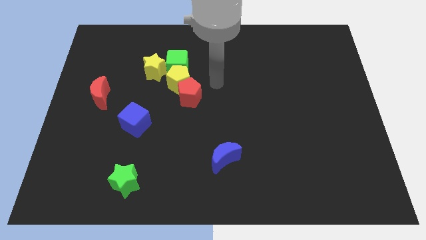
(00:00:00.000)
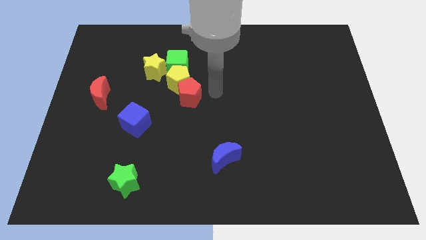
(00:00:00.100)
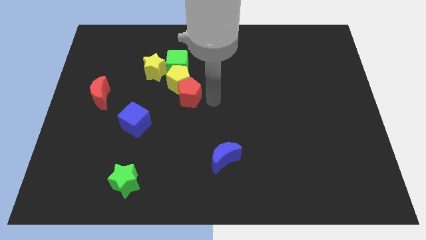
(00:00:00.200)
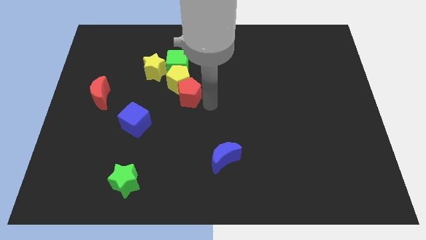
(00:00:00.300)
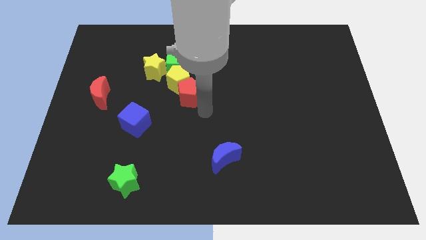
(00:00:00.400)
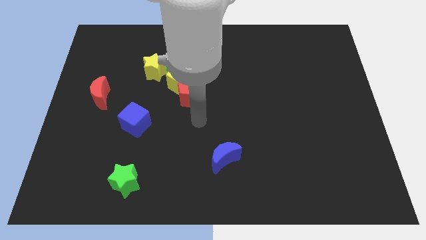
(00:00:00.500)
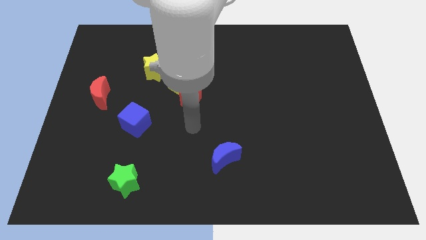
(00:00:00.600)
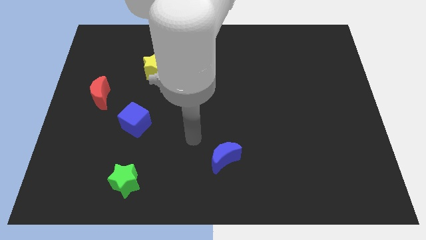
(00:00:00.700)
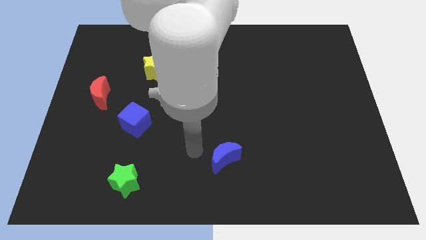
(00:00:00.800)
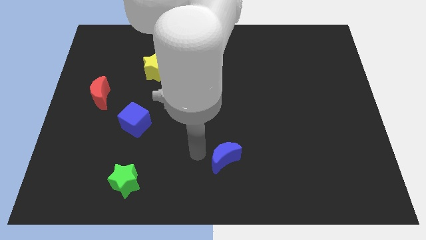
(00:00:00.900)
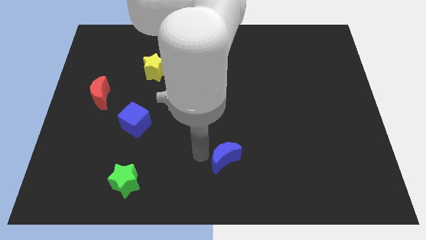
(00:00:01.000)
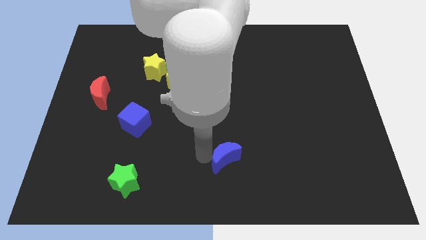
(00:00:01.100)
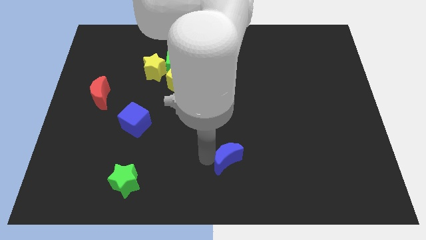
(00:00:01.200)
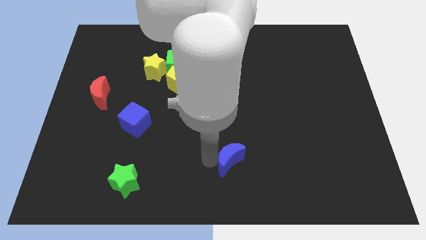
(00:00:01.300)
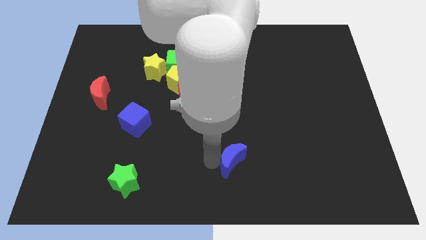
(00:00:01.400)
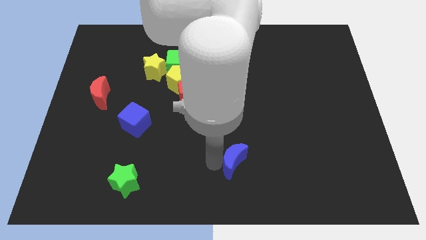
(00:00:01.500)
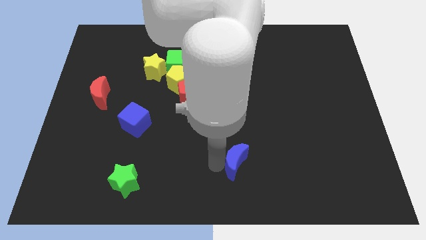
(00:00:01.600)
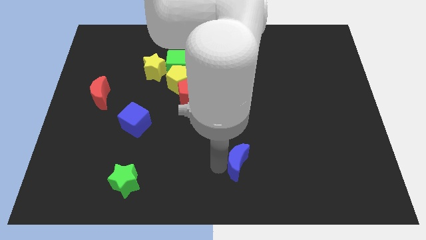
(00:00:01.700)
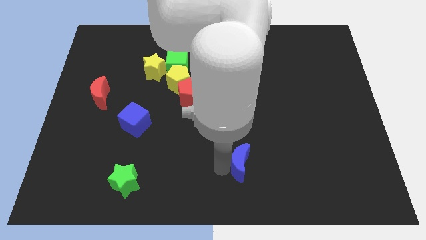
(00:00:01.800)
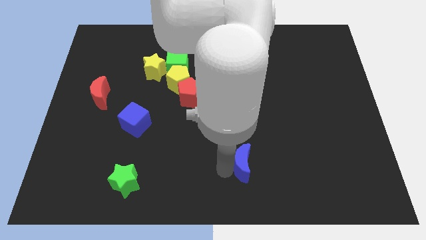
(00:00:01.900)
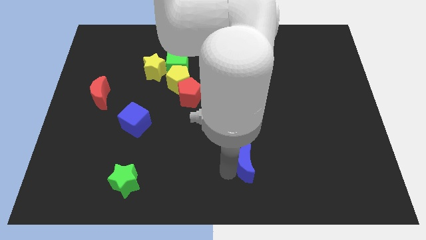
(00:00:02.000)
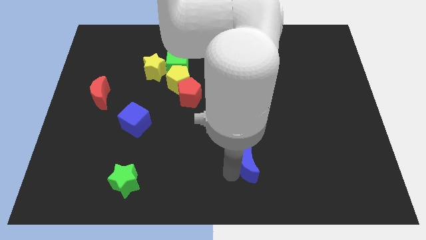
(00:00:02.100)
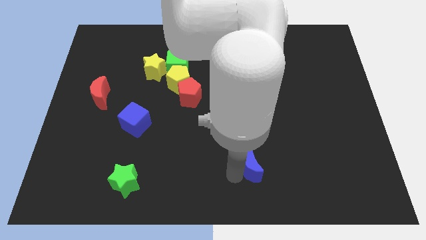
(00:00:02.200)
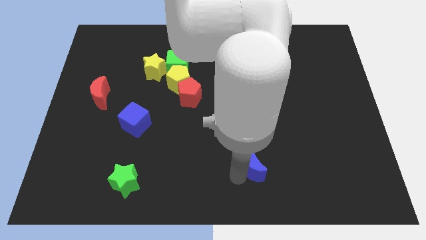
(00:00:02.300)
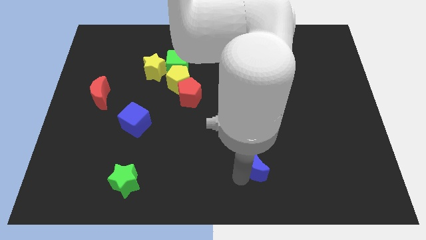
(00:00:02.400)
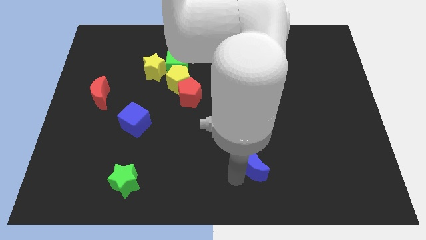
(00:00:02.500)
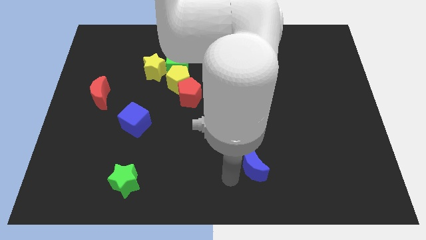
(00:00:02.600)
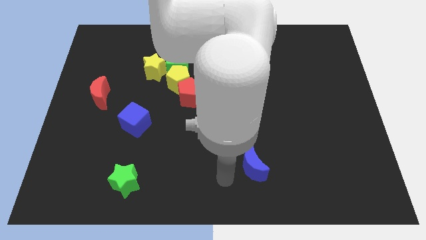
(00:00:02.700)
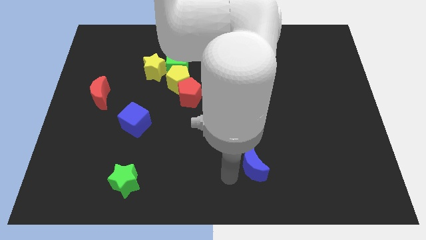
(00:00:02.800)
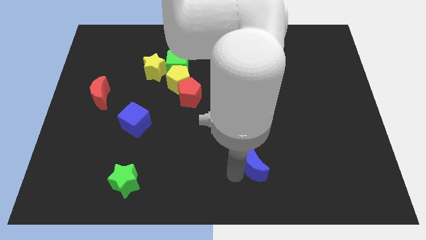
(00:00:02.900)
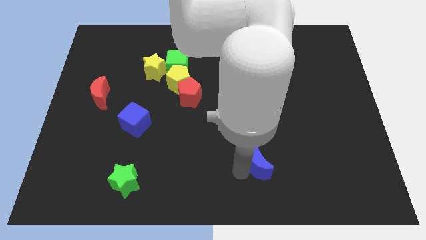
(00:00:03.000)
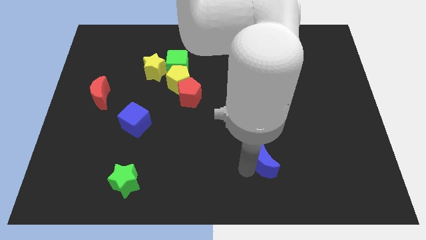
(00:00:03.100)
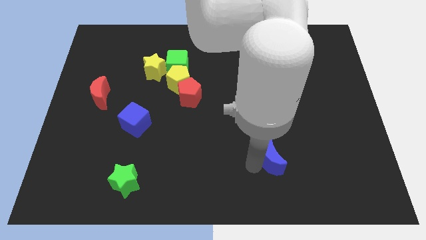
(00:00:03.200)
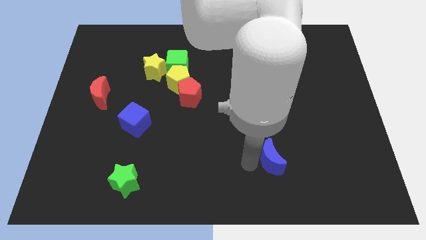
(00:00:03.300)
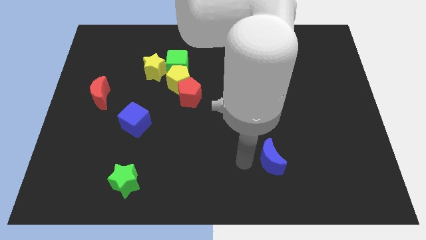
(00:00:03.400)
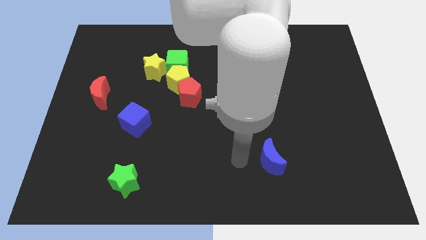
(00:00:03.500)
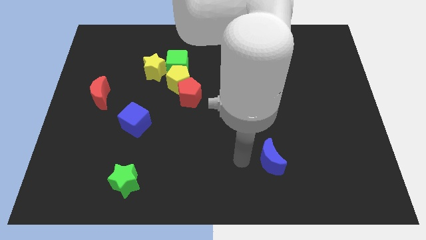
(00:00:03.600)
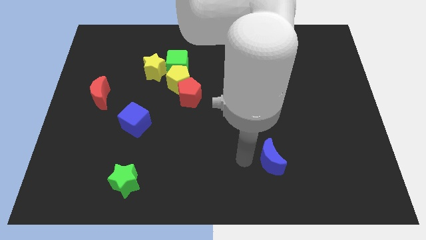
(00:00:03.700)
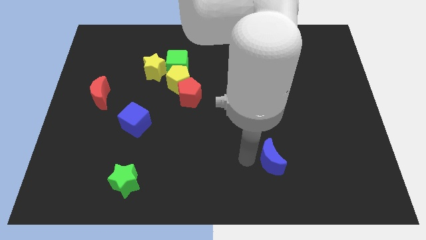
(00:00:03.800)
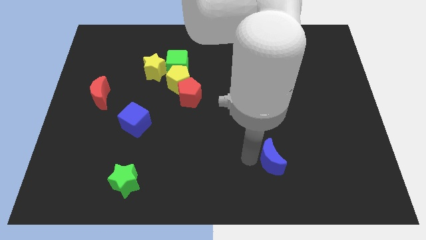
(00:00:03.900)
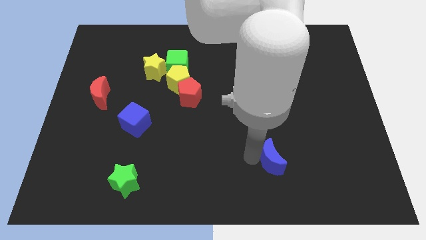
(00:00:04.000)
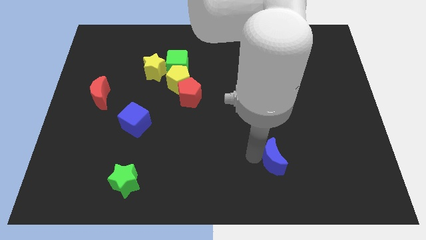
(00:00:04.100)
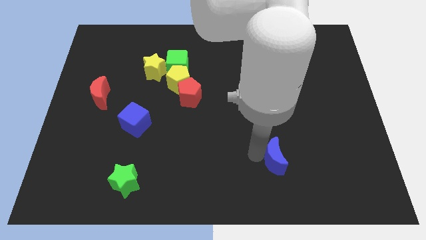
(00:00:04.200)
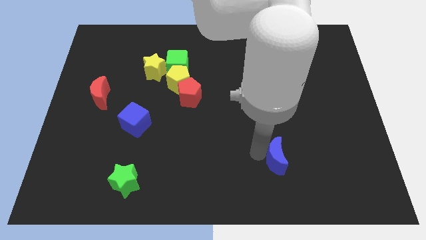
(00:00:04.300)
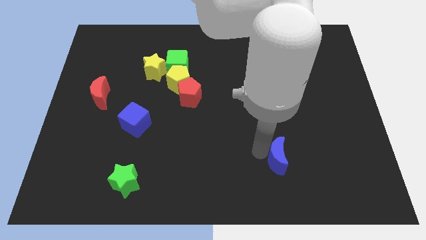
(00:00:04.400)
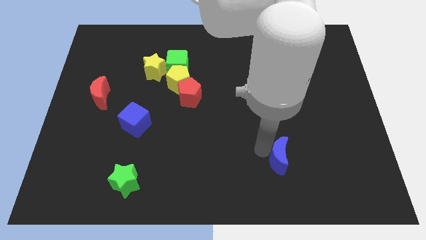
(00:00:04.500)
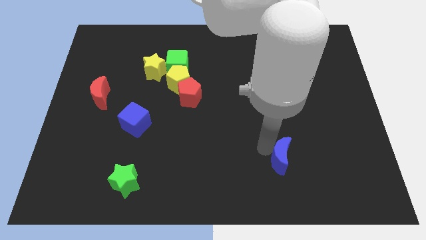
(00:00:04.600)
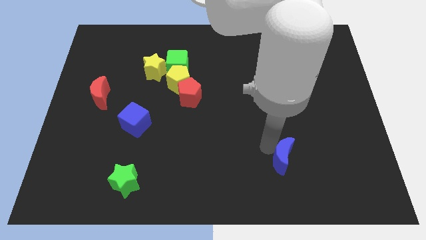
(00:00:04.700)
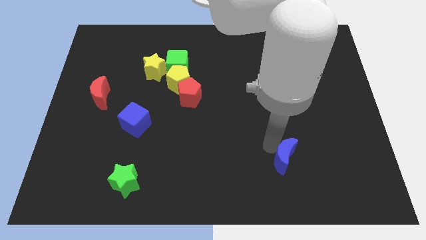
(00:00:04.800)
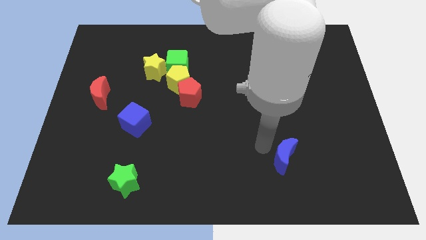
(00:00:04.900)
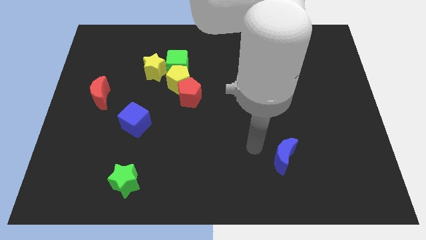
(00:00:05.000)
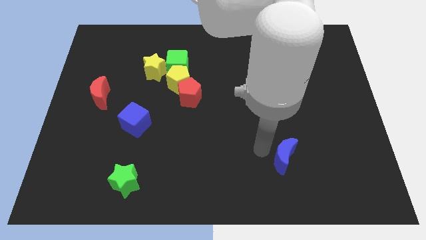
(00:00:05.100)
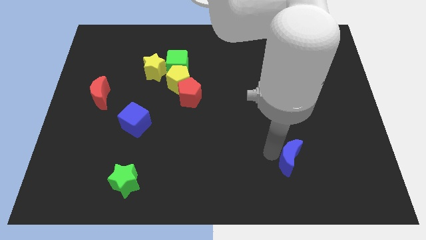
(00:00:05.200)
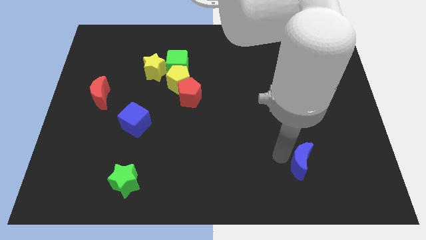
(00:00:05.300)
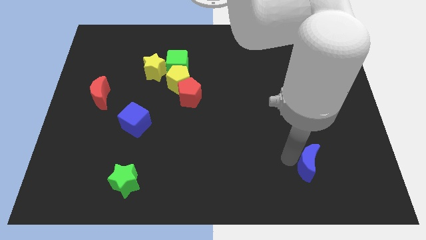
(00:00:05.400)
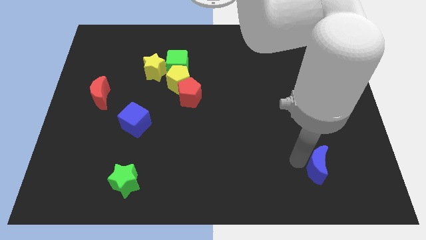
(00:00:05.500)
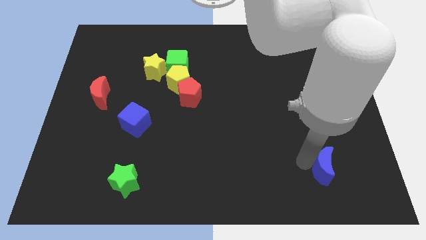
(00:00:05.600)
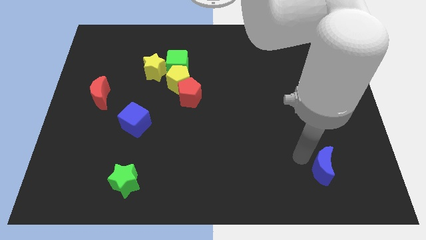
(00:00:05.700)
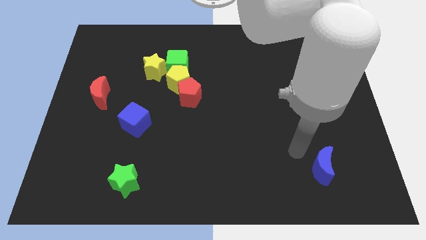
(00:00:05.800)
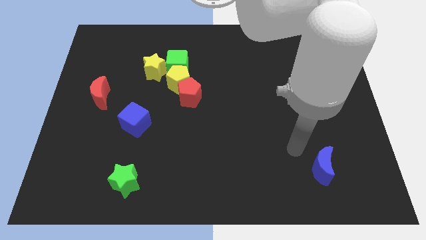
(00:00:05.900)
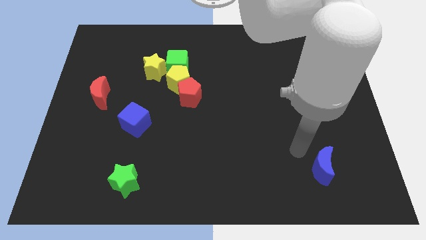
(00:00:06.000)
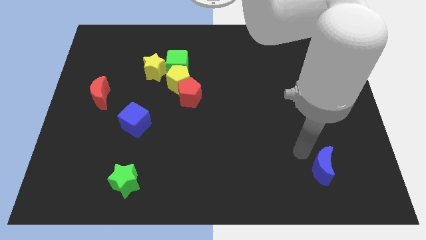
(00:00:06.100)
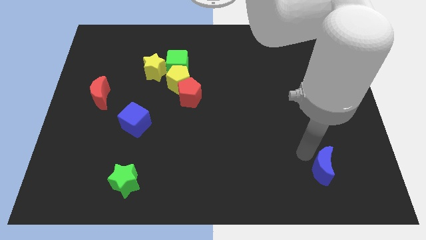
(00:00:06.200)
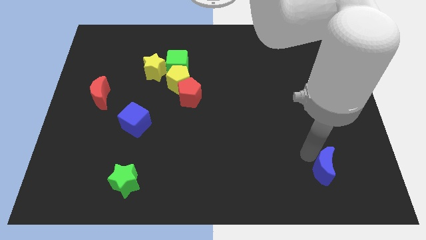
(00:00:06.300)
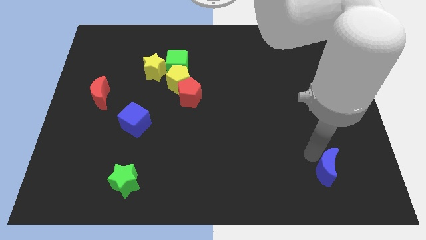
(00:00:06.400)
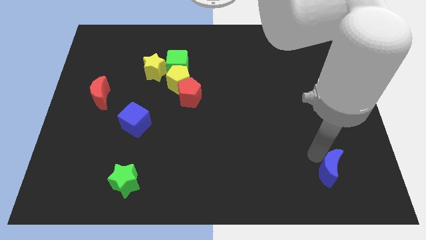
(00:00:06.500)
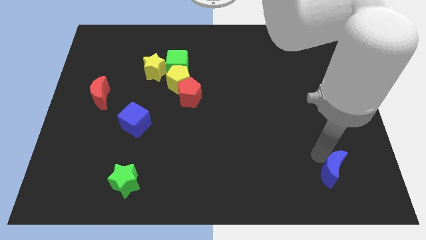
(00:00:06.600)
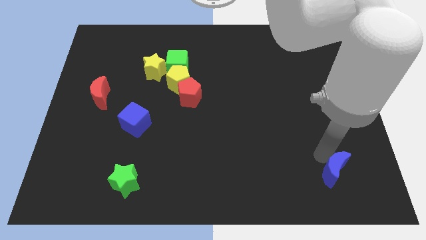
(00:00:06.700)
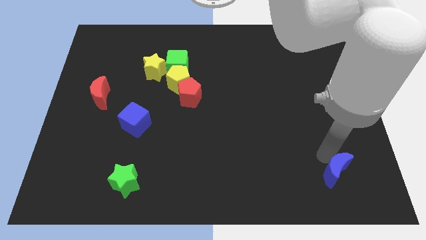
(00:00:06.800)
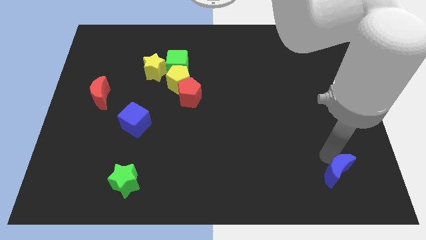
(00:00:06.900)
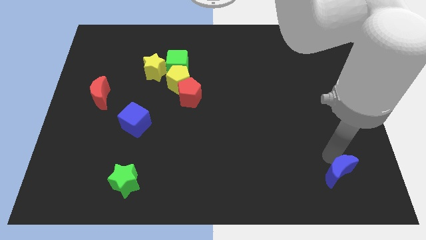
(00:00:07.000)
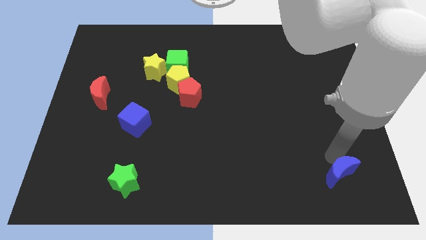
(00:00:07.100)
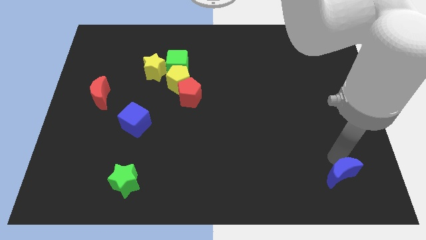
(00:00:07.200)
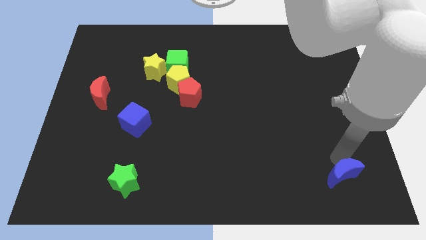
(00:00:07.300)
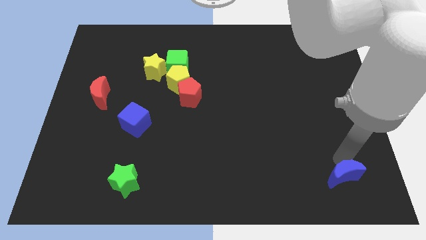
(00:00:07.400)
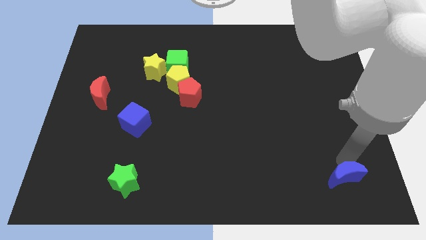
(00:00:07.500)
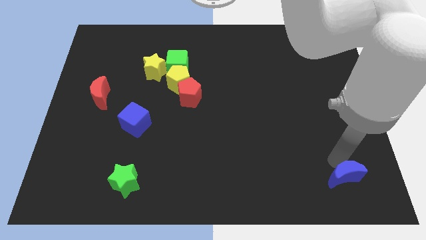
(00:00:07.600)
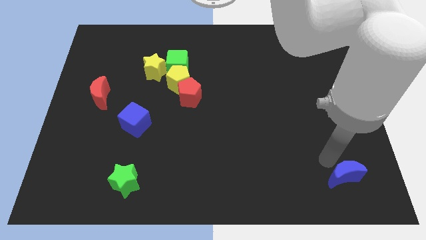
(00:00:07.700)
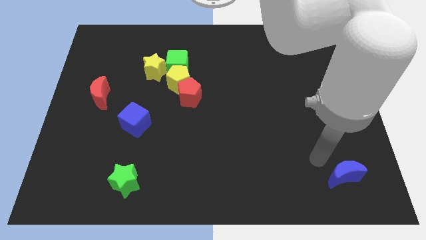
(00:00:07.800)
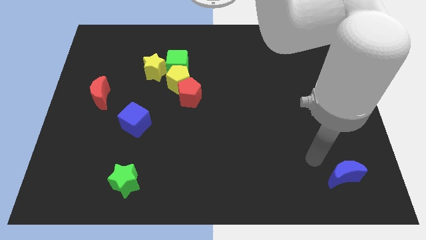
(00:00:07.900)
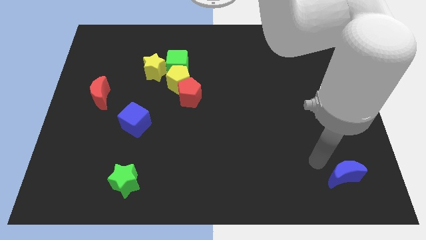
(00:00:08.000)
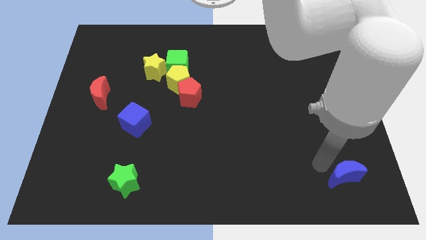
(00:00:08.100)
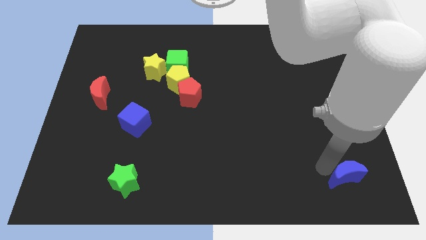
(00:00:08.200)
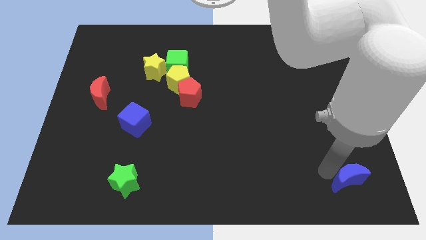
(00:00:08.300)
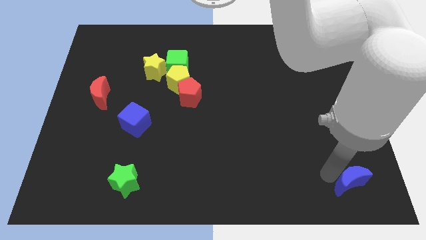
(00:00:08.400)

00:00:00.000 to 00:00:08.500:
put the blue moon to the lower right corner
